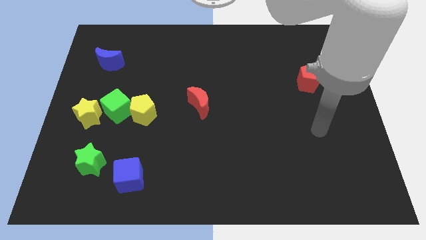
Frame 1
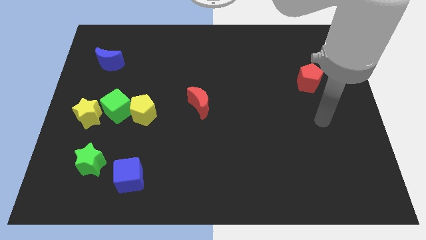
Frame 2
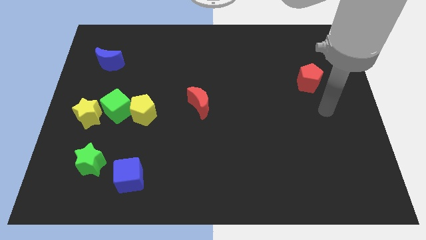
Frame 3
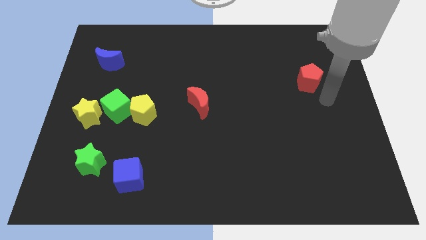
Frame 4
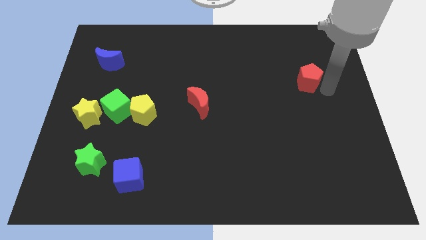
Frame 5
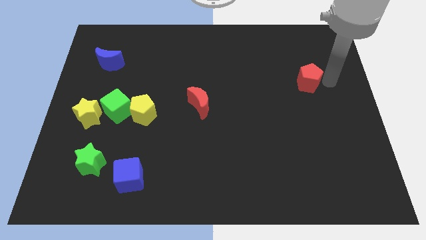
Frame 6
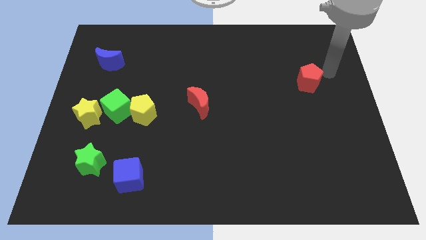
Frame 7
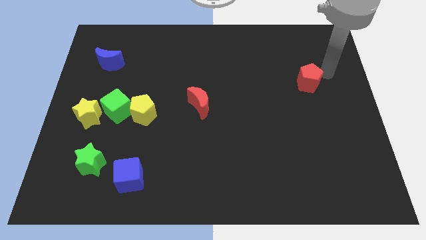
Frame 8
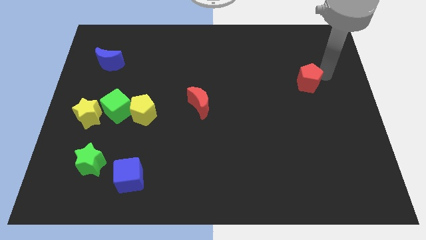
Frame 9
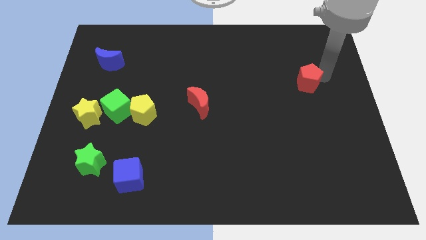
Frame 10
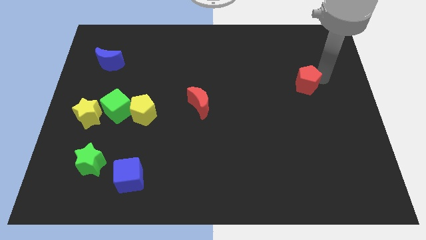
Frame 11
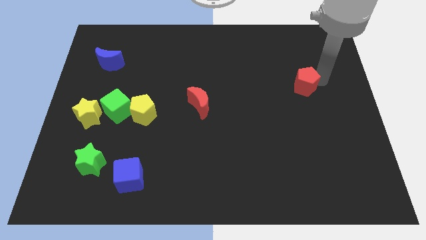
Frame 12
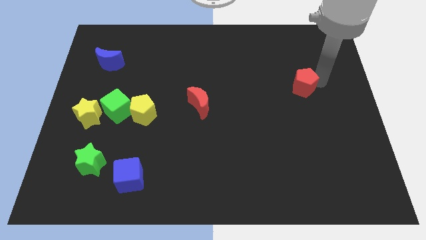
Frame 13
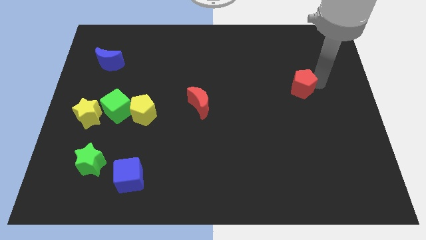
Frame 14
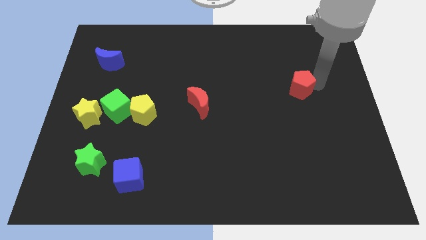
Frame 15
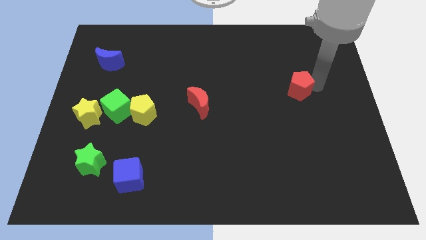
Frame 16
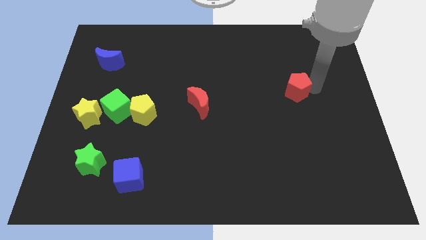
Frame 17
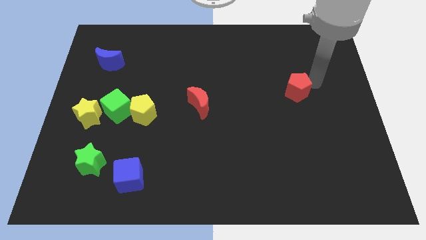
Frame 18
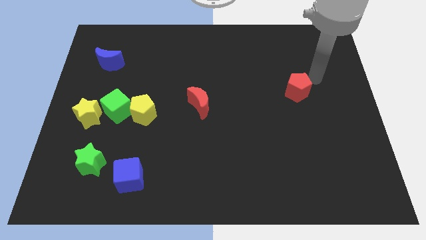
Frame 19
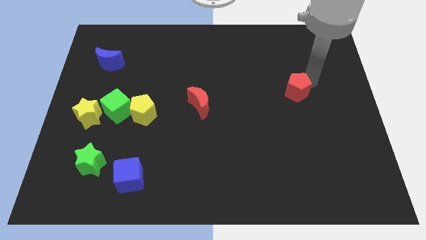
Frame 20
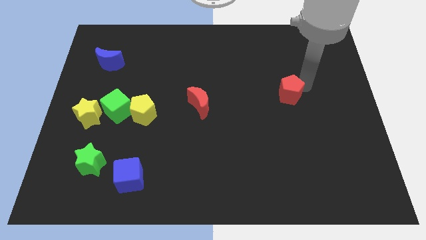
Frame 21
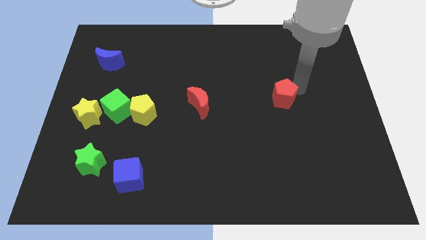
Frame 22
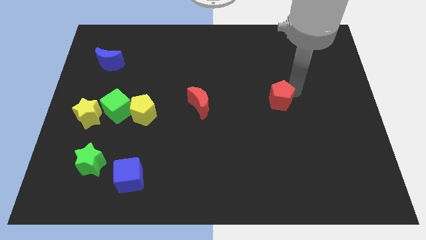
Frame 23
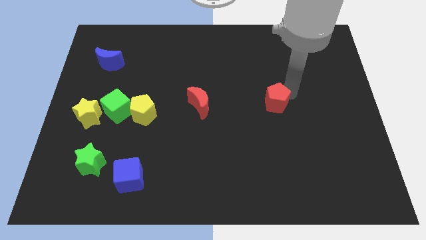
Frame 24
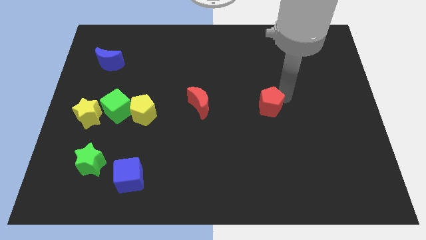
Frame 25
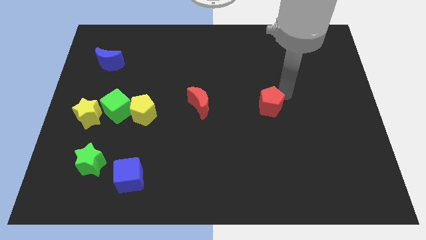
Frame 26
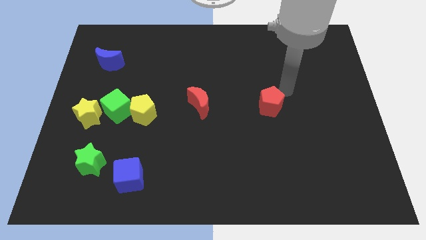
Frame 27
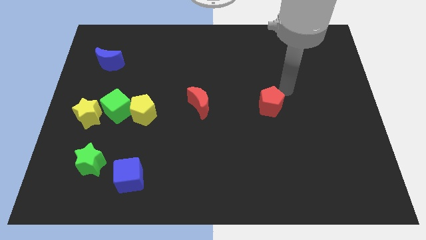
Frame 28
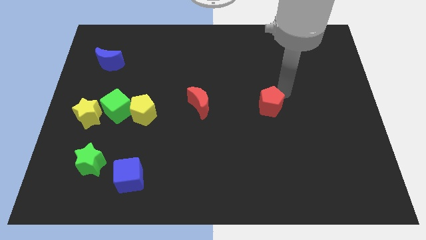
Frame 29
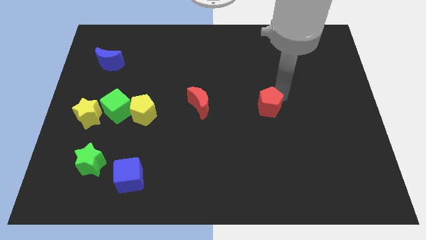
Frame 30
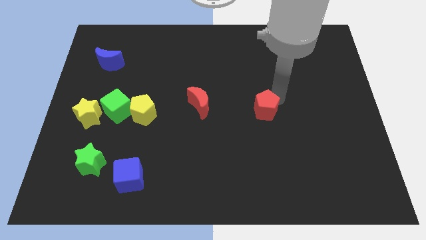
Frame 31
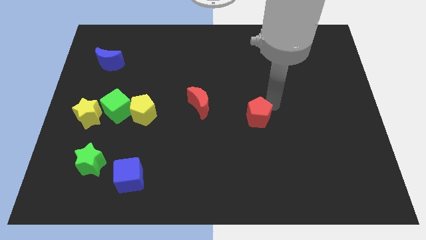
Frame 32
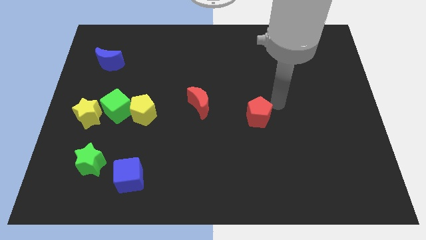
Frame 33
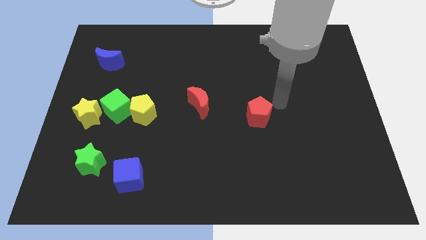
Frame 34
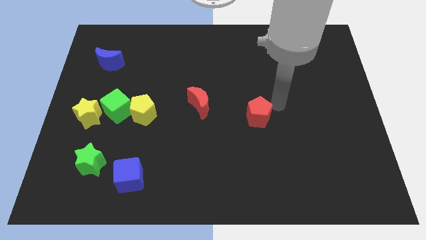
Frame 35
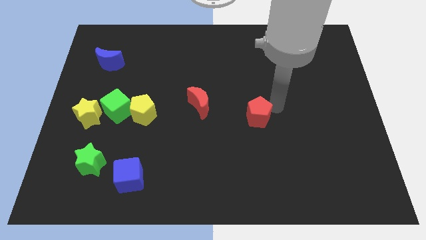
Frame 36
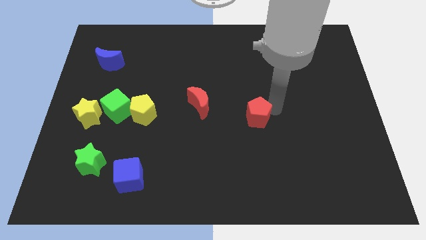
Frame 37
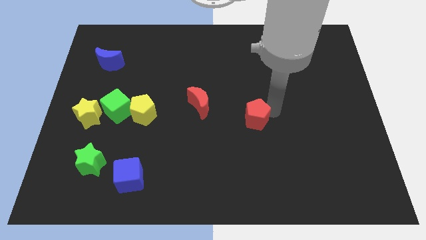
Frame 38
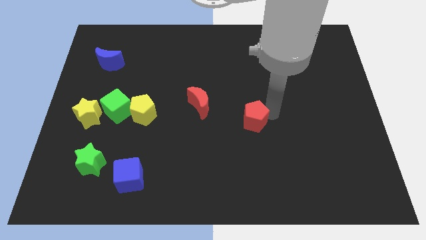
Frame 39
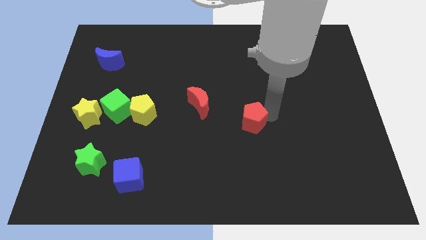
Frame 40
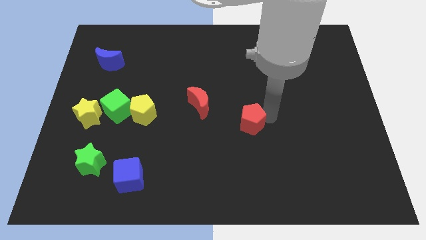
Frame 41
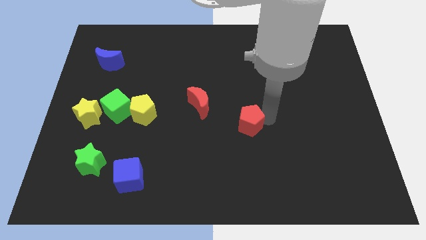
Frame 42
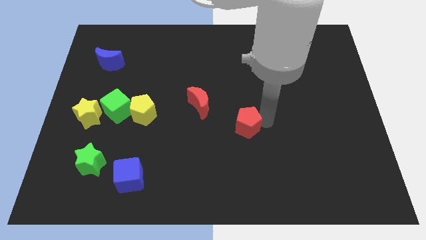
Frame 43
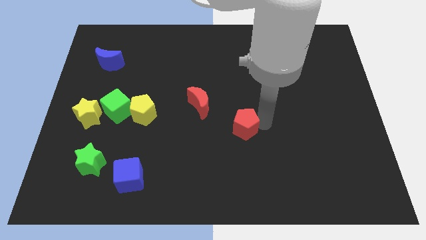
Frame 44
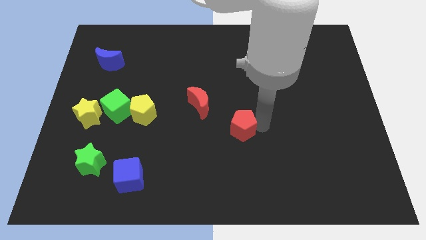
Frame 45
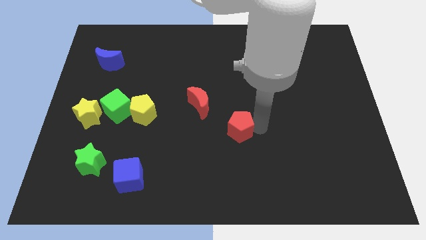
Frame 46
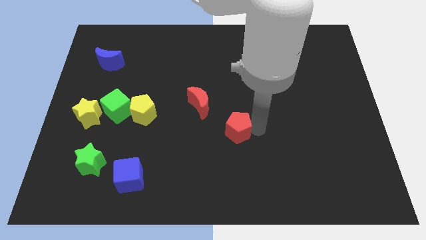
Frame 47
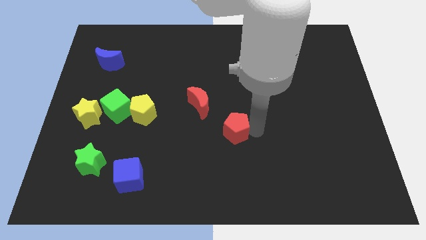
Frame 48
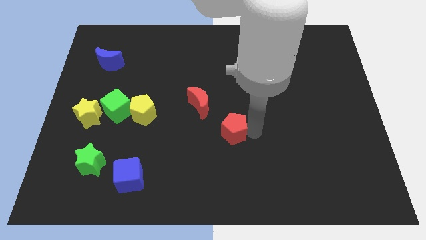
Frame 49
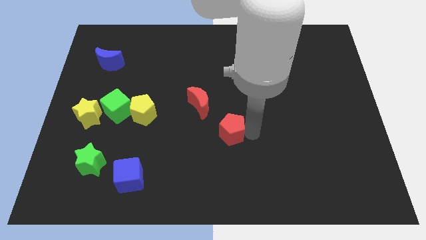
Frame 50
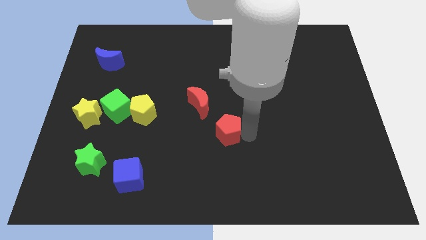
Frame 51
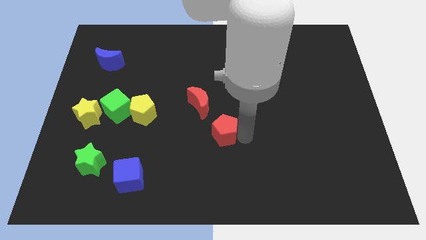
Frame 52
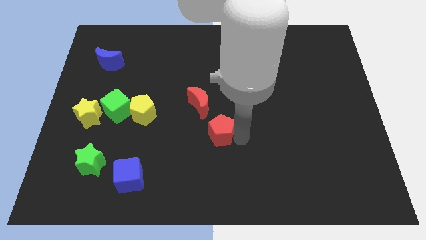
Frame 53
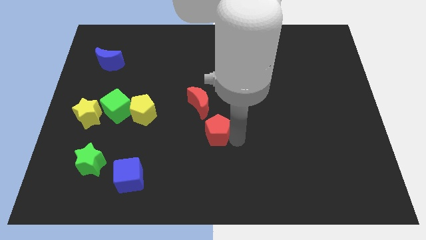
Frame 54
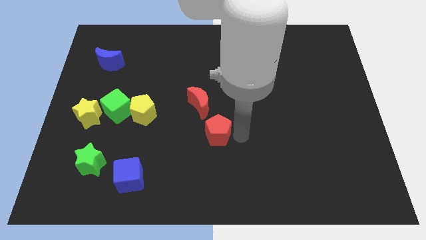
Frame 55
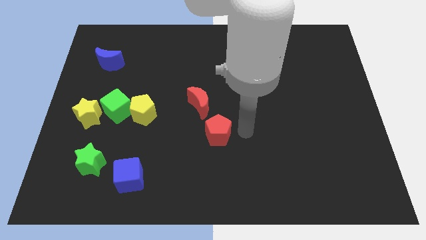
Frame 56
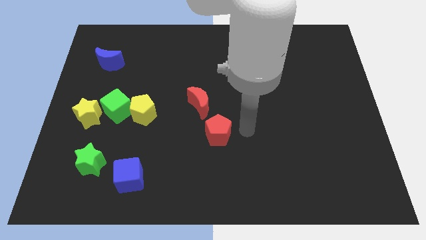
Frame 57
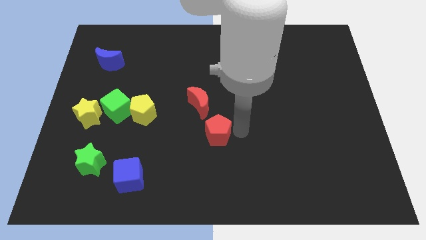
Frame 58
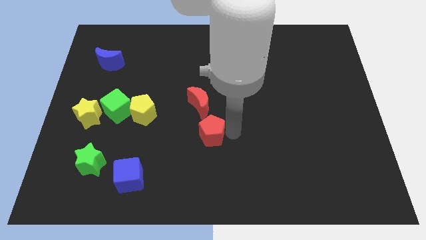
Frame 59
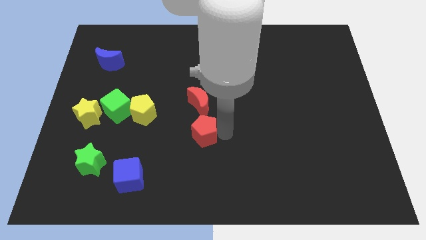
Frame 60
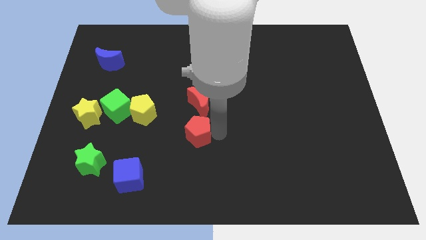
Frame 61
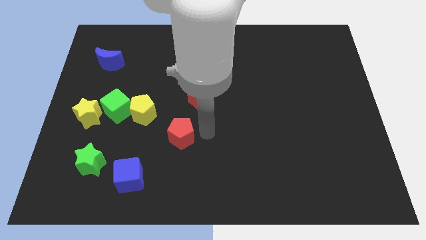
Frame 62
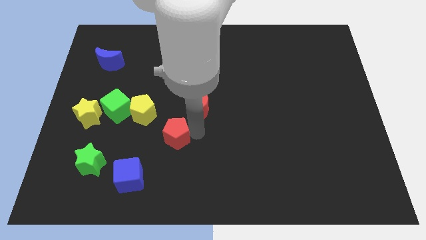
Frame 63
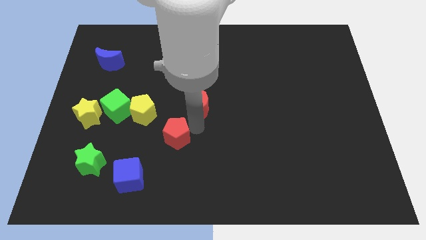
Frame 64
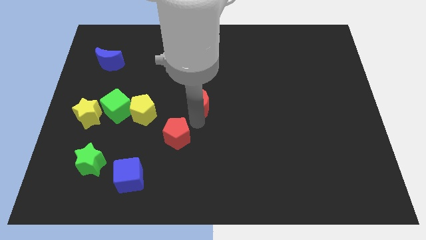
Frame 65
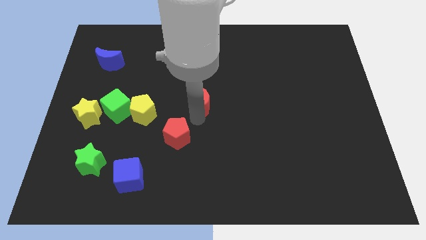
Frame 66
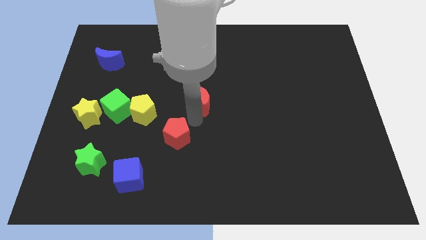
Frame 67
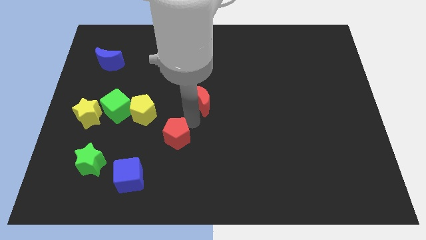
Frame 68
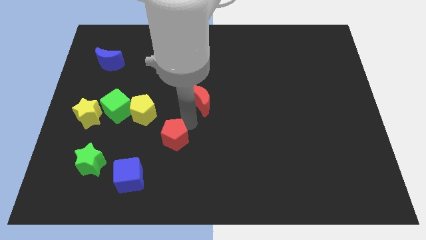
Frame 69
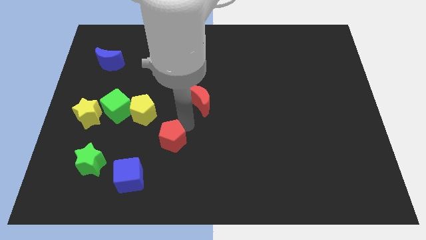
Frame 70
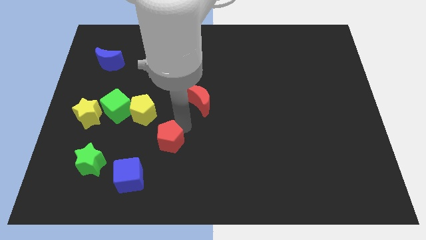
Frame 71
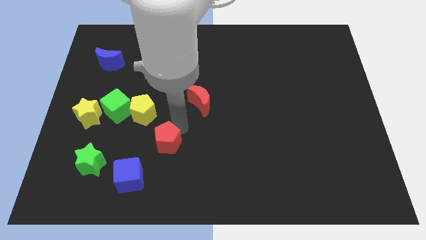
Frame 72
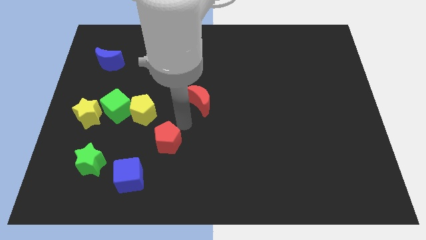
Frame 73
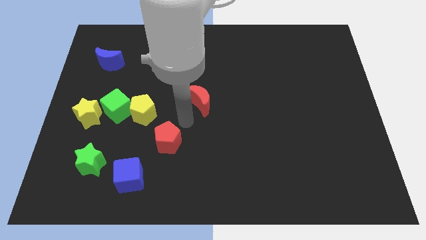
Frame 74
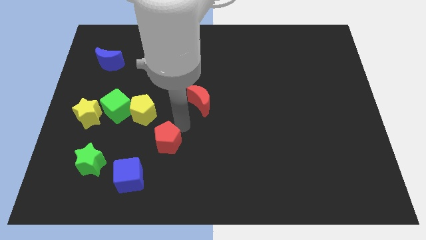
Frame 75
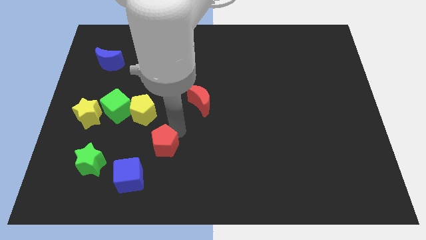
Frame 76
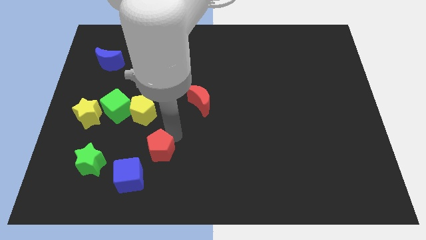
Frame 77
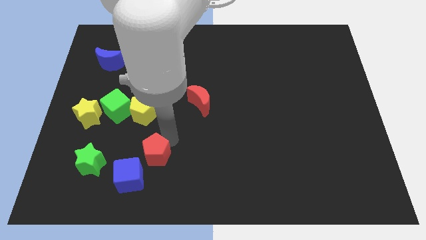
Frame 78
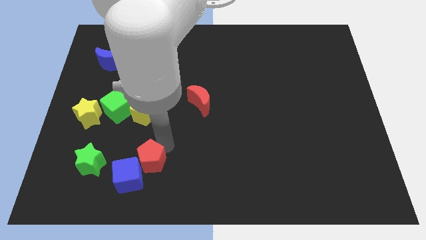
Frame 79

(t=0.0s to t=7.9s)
put the red pentagon next to the blue cube
